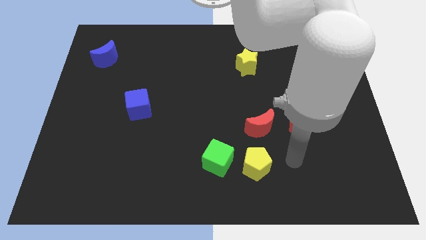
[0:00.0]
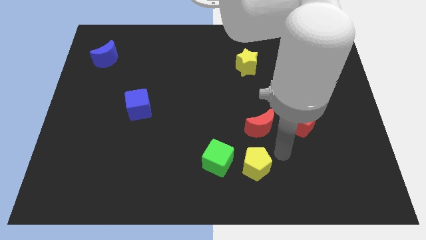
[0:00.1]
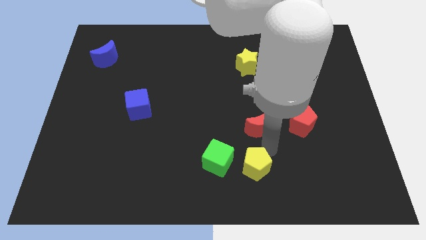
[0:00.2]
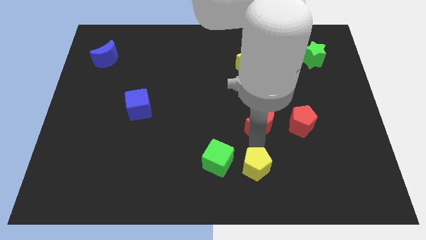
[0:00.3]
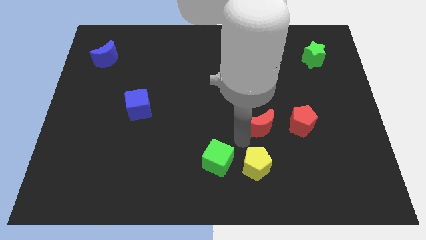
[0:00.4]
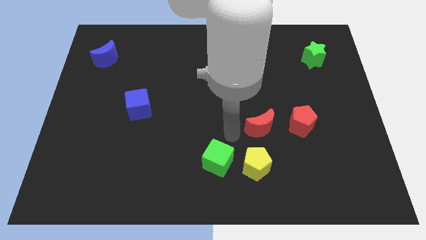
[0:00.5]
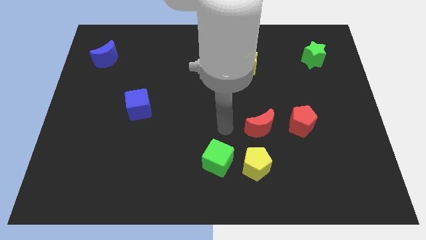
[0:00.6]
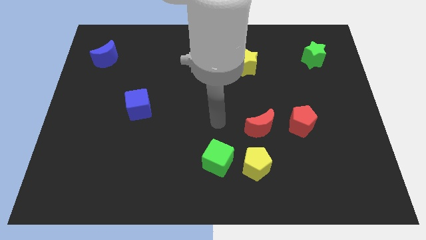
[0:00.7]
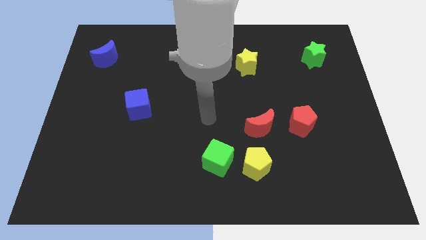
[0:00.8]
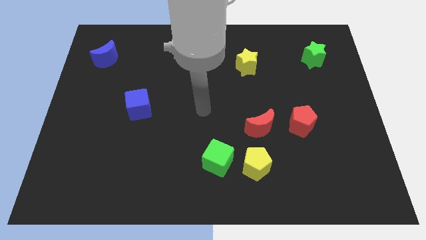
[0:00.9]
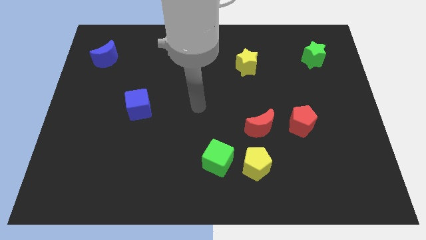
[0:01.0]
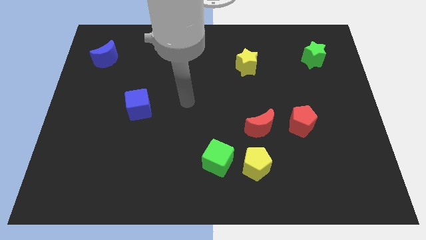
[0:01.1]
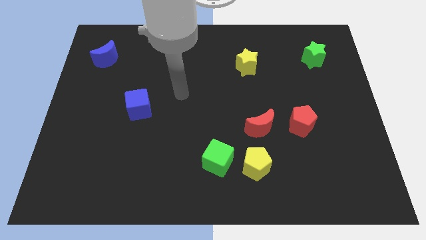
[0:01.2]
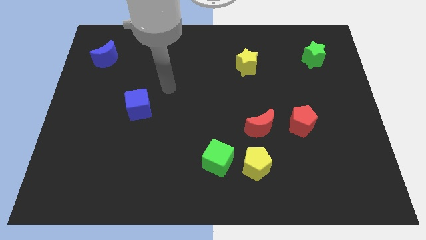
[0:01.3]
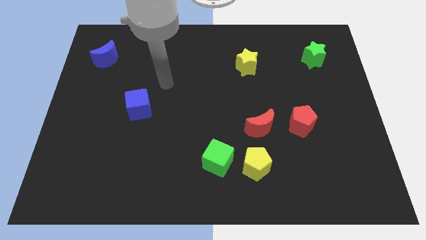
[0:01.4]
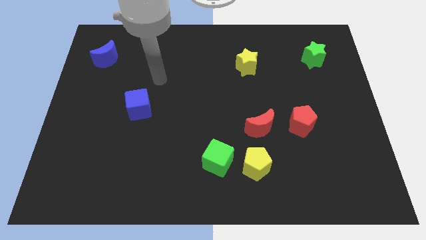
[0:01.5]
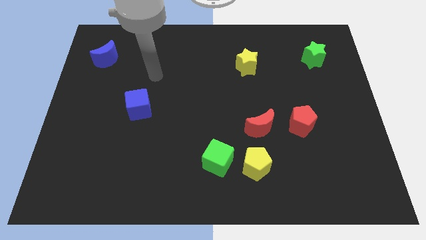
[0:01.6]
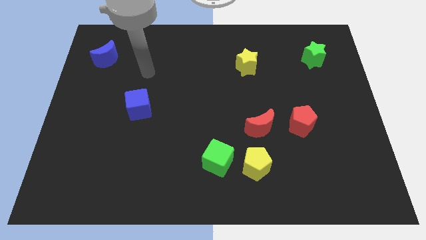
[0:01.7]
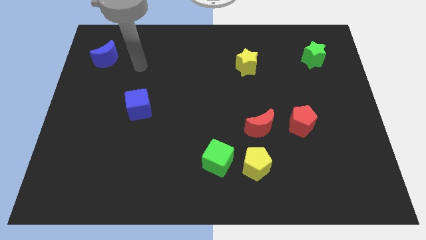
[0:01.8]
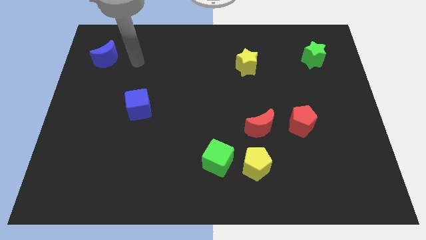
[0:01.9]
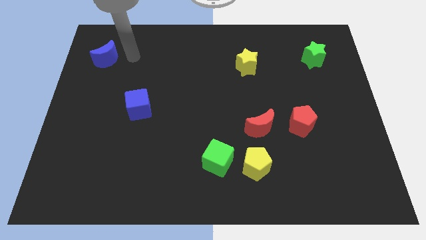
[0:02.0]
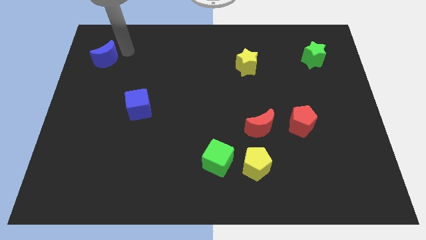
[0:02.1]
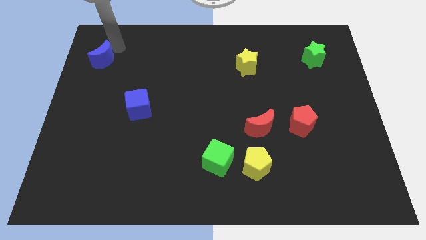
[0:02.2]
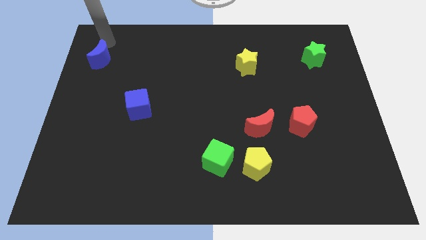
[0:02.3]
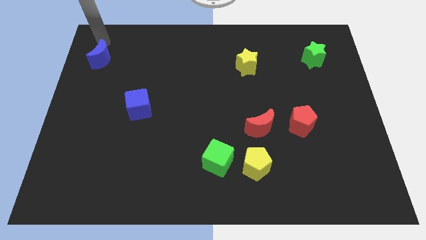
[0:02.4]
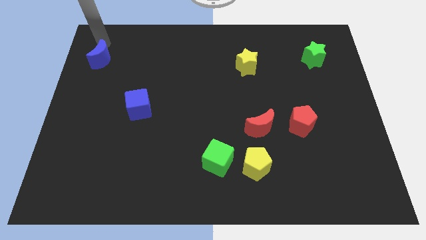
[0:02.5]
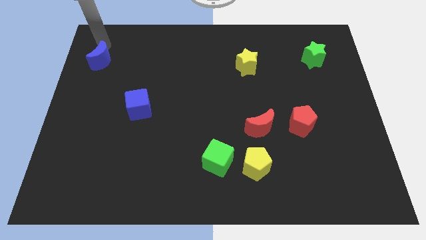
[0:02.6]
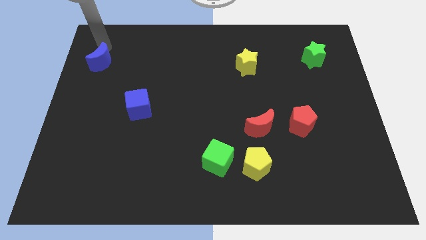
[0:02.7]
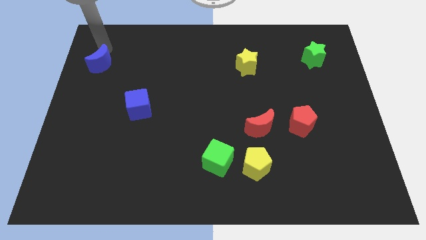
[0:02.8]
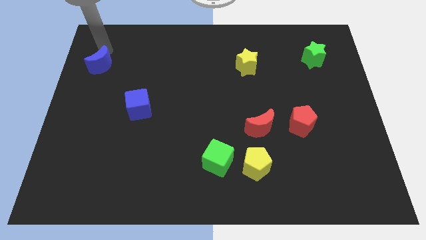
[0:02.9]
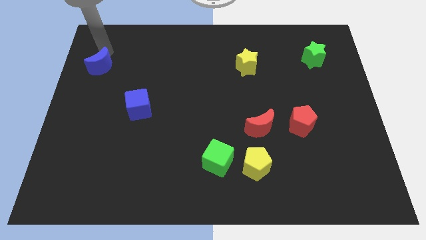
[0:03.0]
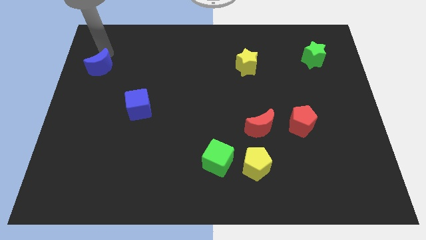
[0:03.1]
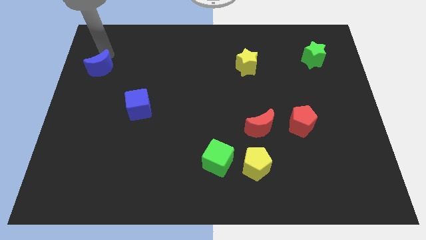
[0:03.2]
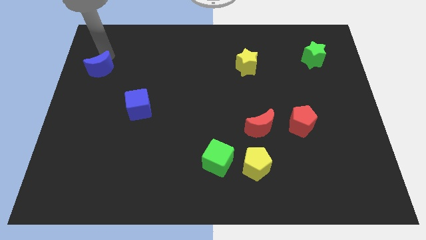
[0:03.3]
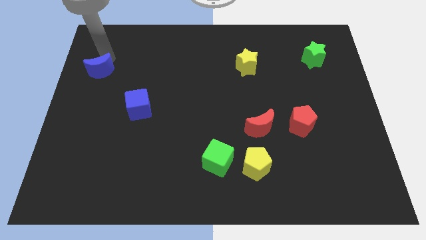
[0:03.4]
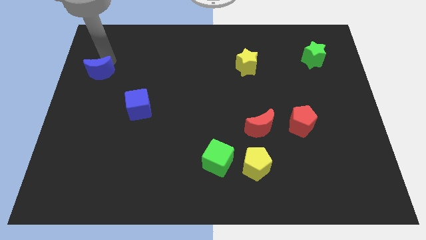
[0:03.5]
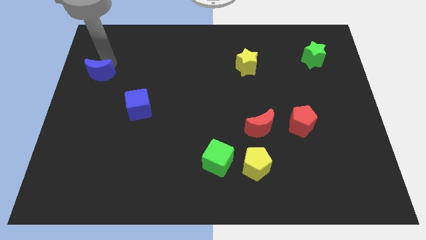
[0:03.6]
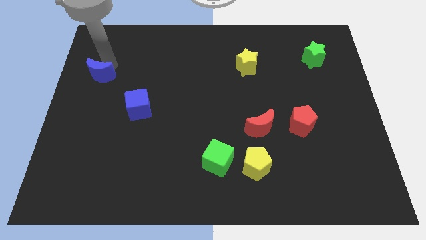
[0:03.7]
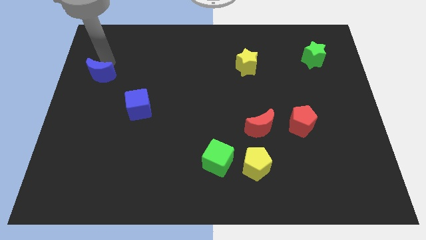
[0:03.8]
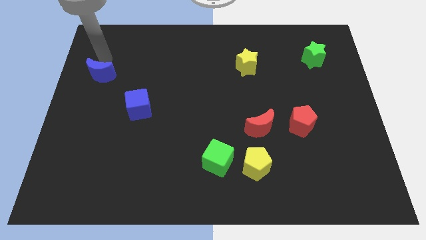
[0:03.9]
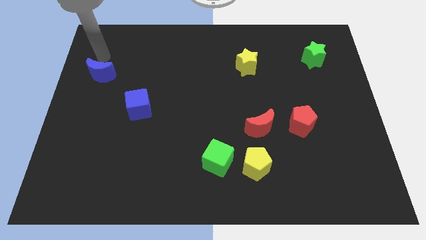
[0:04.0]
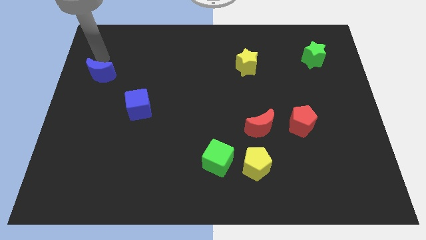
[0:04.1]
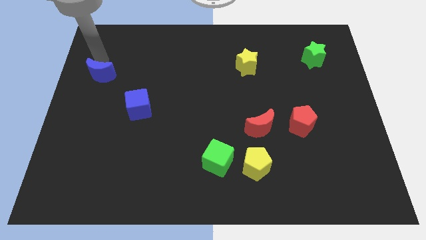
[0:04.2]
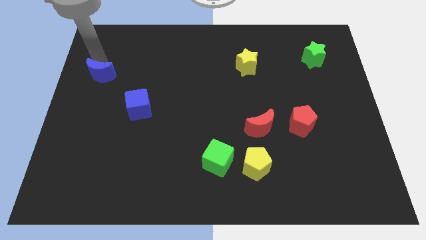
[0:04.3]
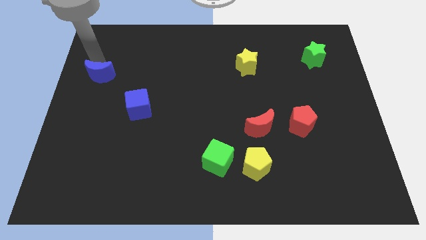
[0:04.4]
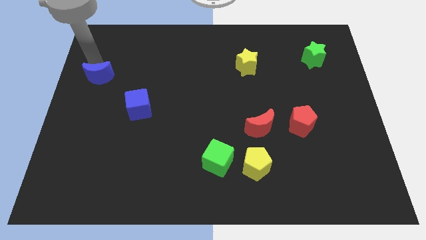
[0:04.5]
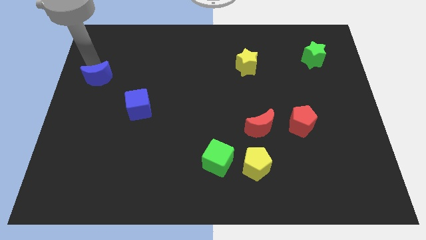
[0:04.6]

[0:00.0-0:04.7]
push the blue moon down a bit

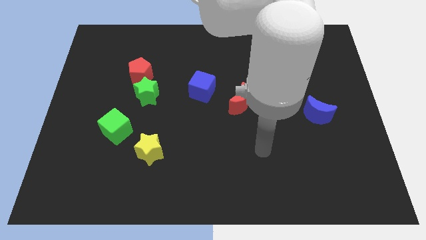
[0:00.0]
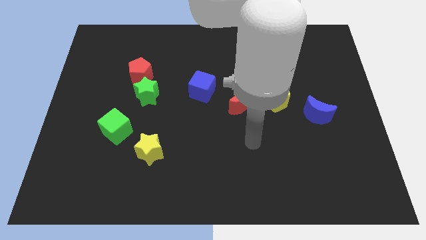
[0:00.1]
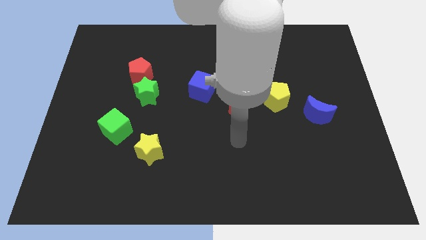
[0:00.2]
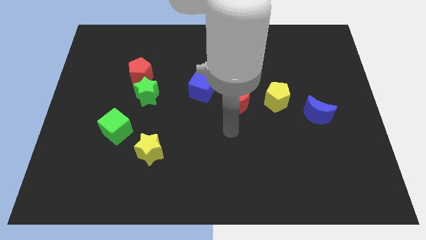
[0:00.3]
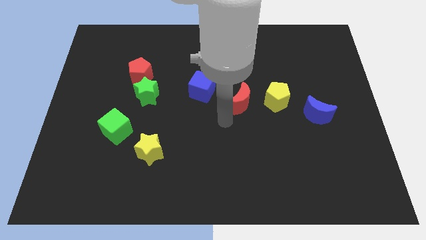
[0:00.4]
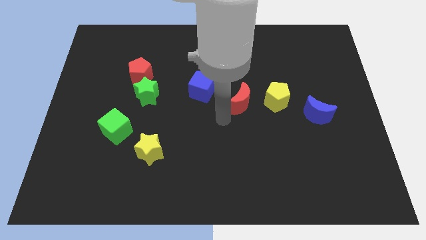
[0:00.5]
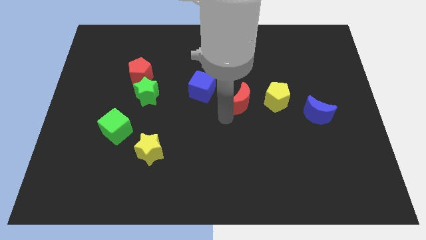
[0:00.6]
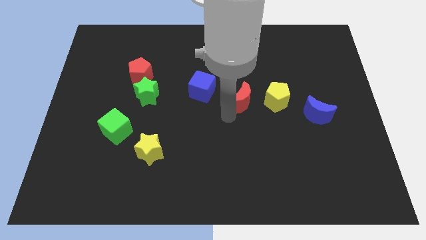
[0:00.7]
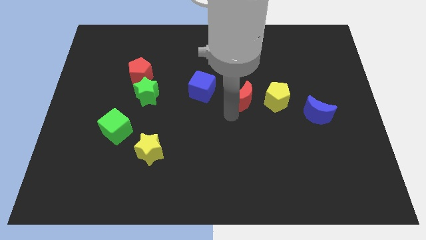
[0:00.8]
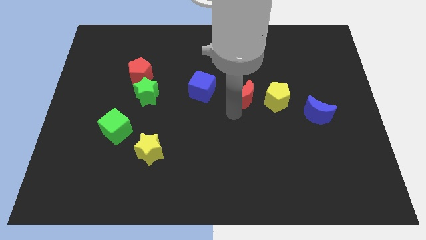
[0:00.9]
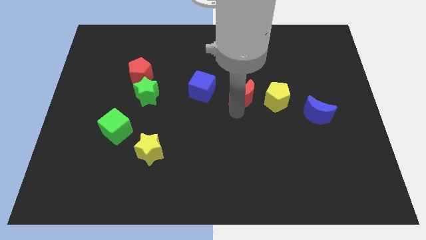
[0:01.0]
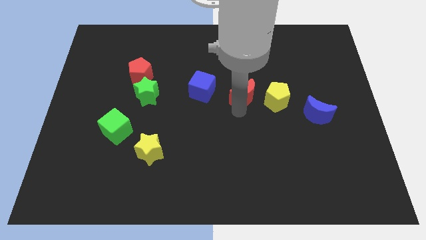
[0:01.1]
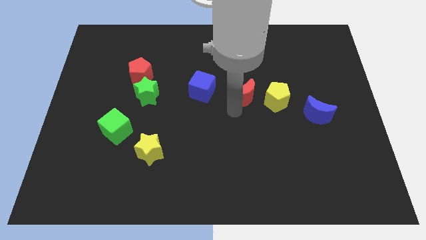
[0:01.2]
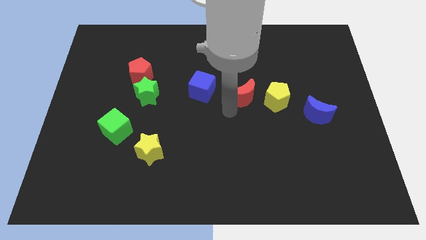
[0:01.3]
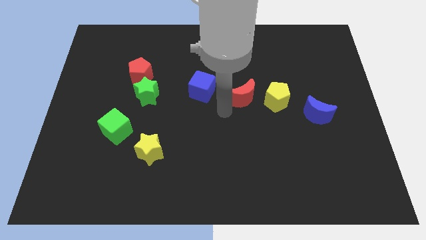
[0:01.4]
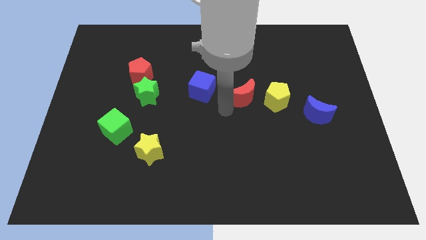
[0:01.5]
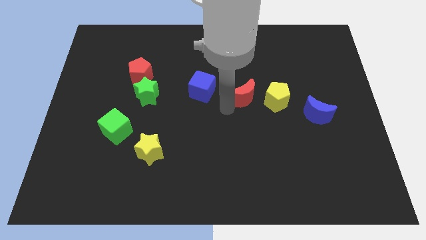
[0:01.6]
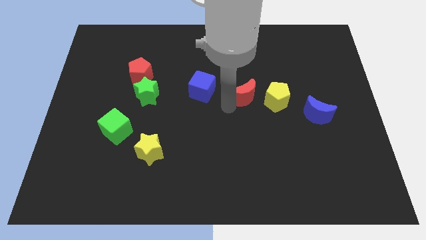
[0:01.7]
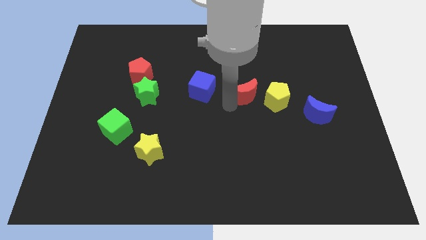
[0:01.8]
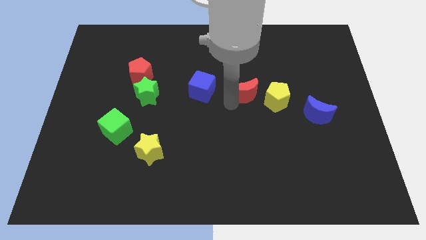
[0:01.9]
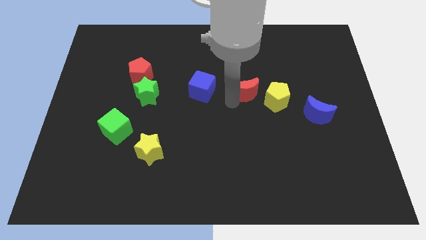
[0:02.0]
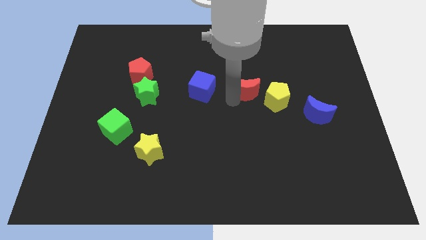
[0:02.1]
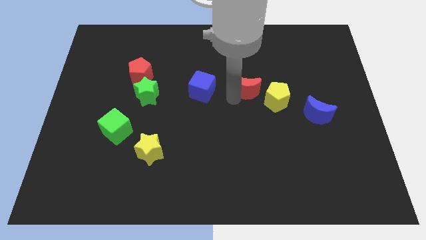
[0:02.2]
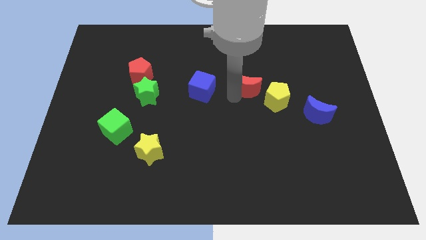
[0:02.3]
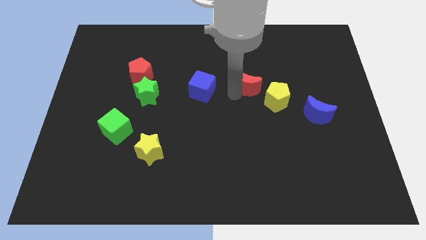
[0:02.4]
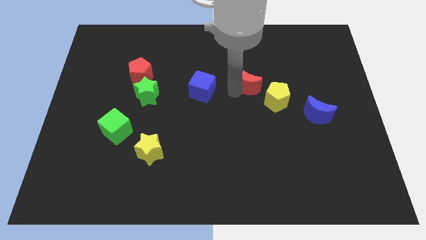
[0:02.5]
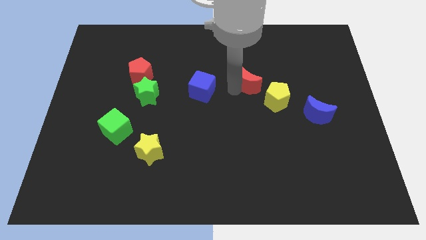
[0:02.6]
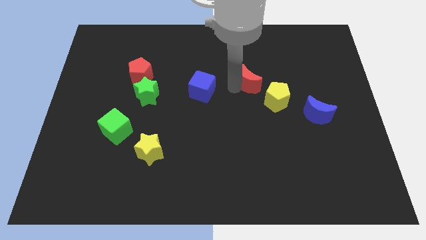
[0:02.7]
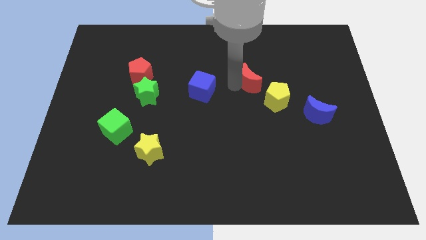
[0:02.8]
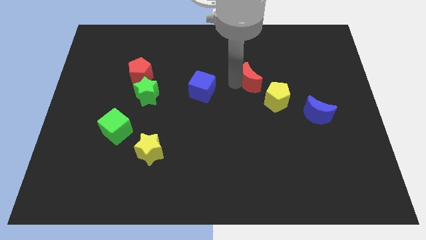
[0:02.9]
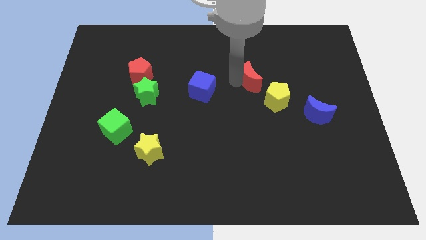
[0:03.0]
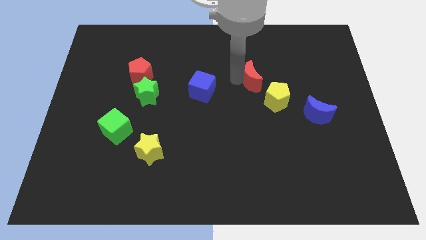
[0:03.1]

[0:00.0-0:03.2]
slide the red moon up and to the right a bit

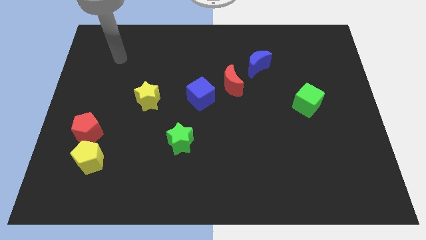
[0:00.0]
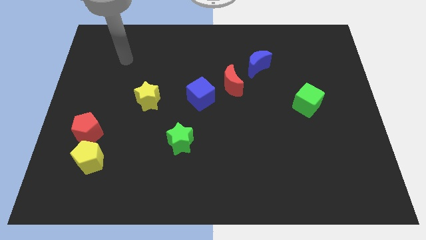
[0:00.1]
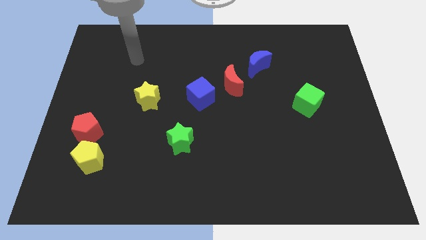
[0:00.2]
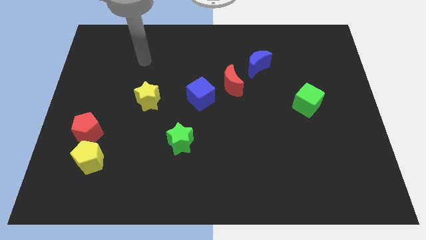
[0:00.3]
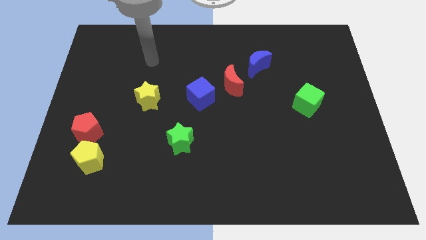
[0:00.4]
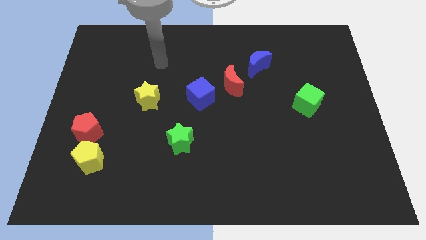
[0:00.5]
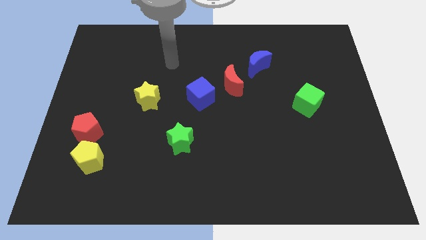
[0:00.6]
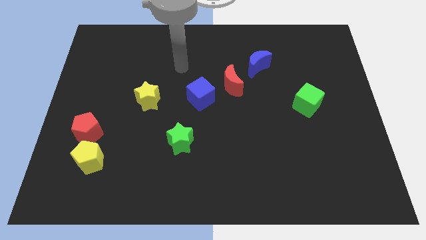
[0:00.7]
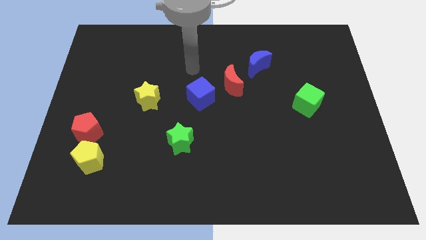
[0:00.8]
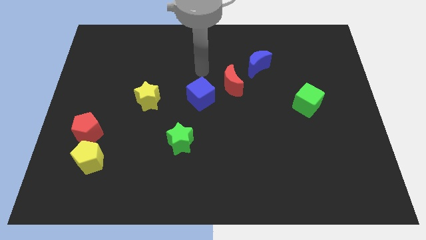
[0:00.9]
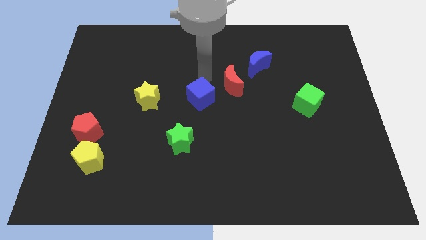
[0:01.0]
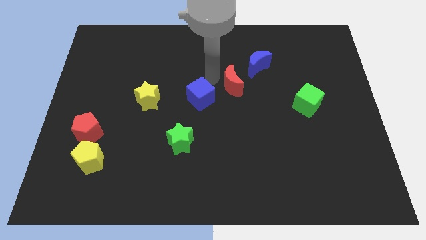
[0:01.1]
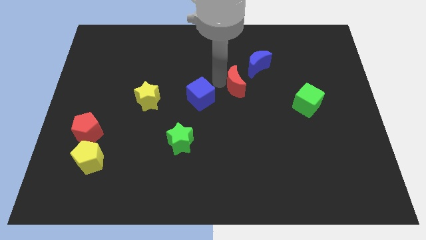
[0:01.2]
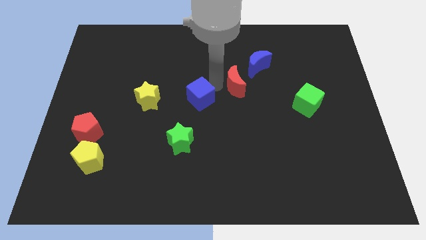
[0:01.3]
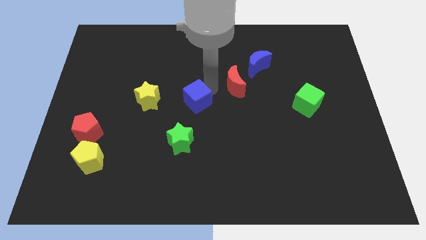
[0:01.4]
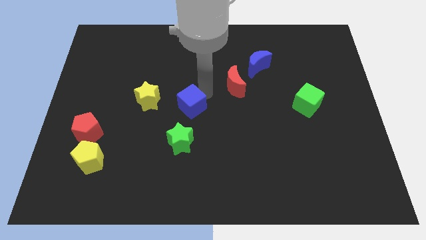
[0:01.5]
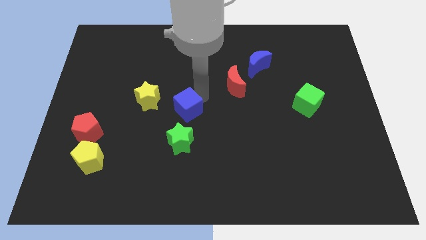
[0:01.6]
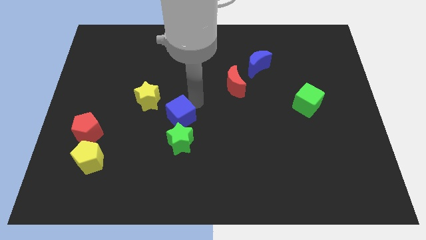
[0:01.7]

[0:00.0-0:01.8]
slightly slide the blue cube down and left diagonally
